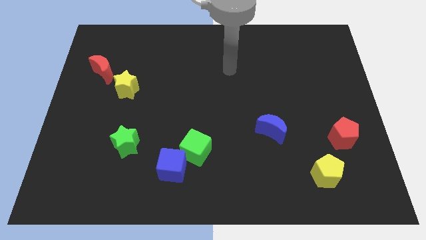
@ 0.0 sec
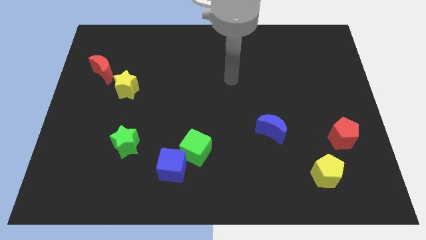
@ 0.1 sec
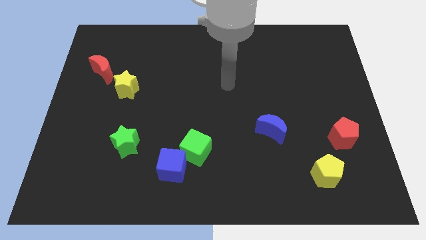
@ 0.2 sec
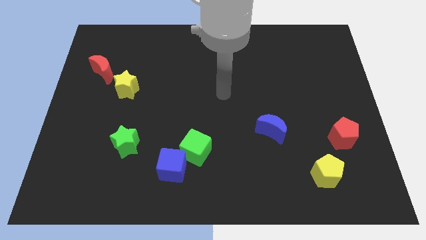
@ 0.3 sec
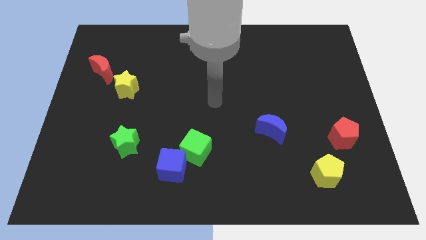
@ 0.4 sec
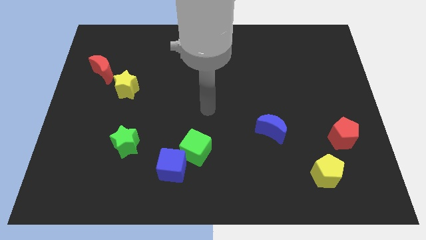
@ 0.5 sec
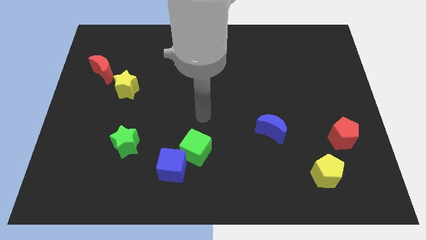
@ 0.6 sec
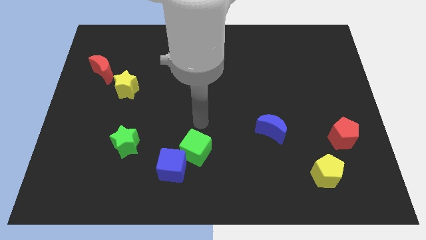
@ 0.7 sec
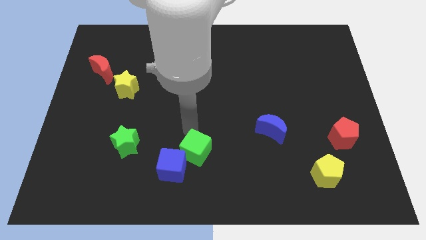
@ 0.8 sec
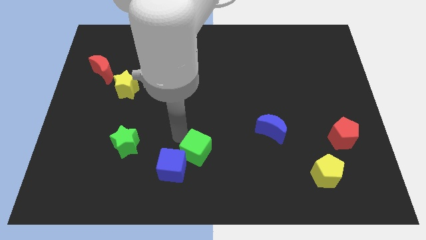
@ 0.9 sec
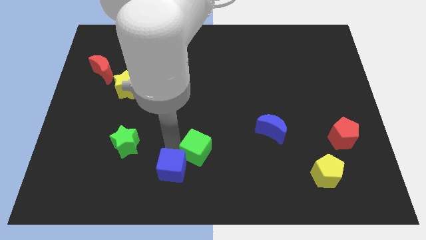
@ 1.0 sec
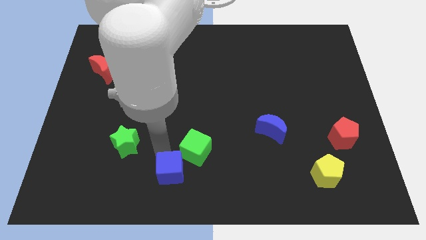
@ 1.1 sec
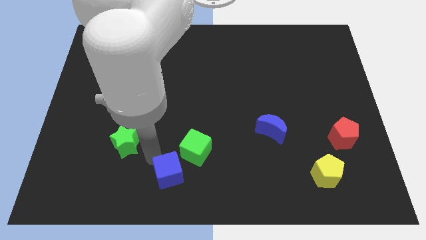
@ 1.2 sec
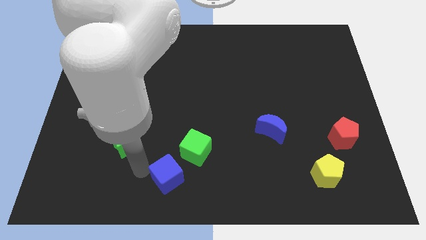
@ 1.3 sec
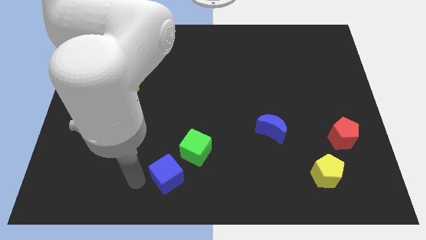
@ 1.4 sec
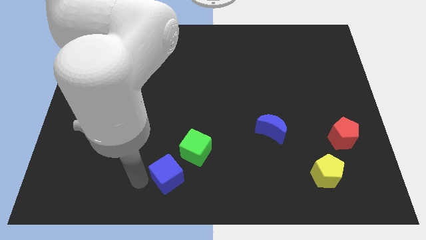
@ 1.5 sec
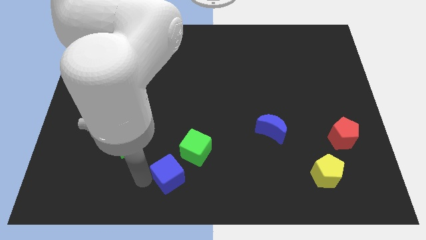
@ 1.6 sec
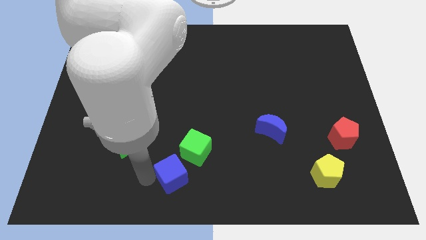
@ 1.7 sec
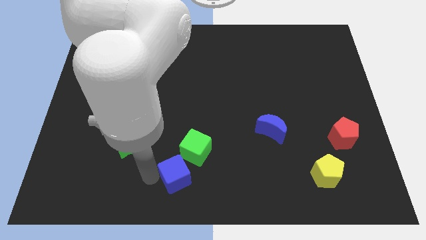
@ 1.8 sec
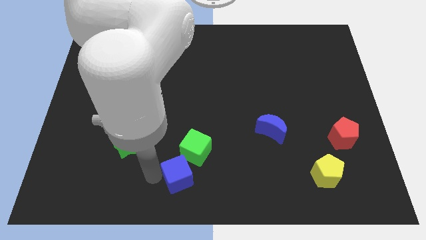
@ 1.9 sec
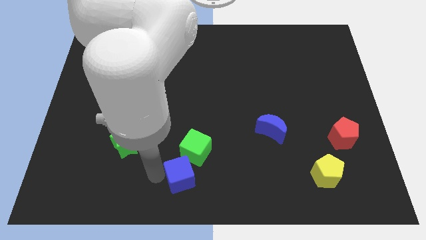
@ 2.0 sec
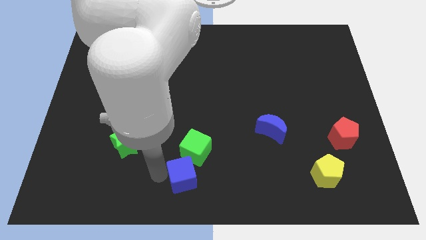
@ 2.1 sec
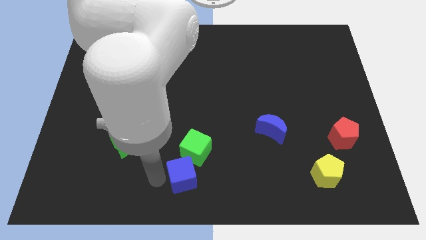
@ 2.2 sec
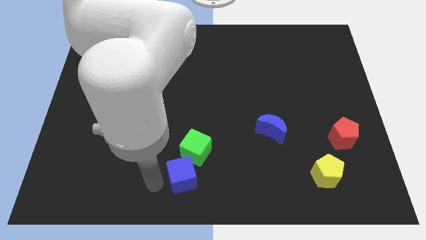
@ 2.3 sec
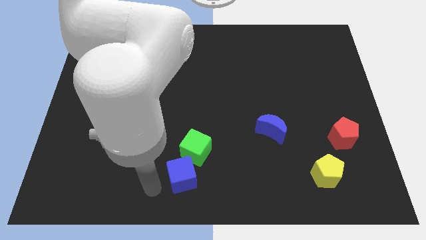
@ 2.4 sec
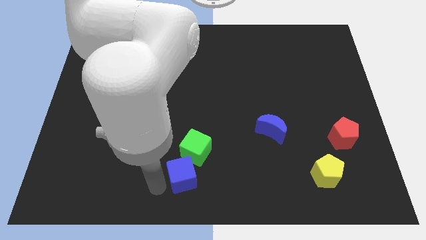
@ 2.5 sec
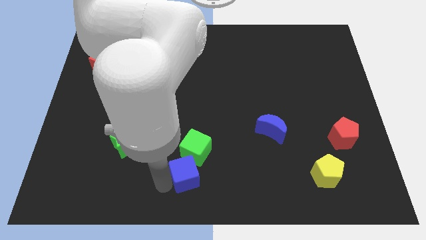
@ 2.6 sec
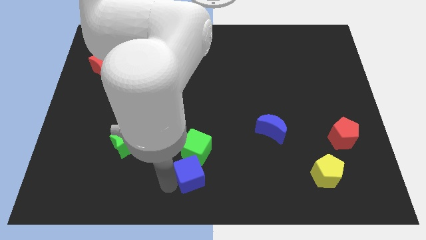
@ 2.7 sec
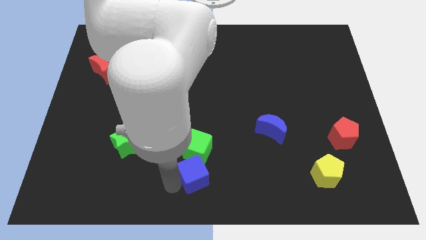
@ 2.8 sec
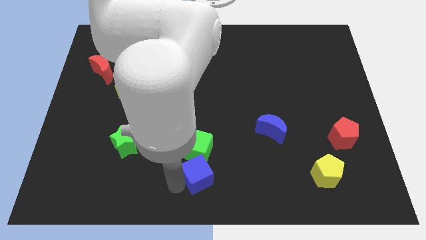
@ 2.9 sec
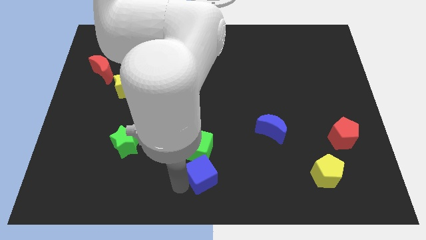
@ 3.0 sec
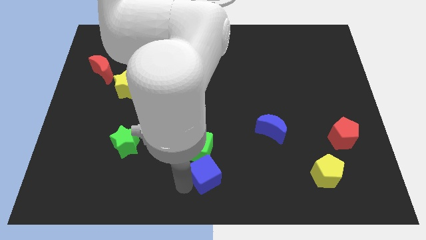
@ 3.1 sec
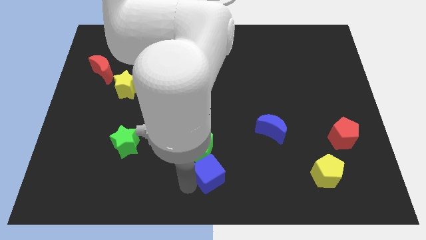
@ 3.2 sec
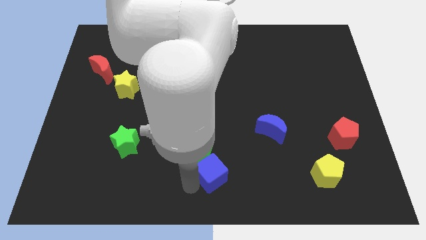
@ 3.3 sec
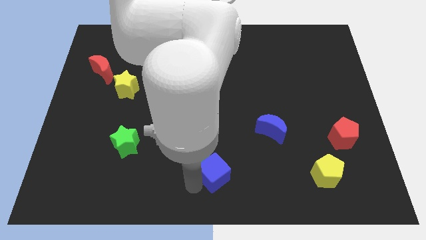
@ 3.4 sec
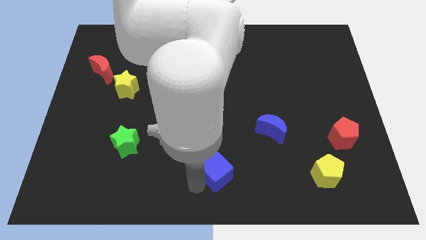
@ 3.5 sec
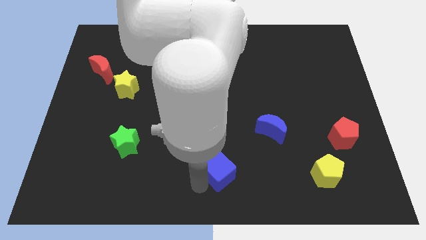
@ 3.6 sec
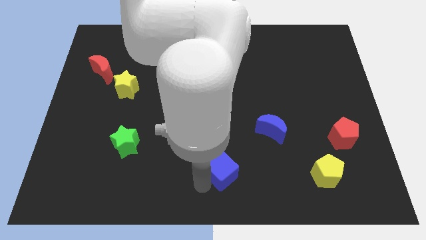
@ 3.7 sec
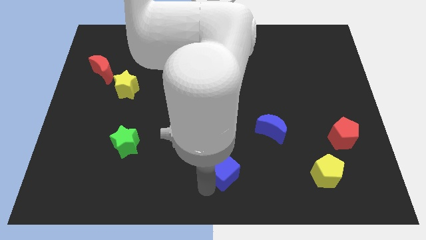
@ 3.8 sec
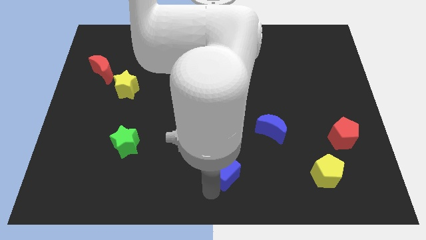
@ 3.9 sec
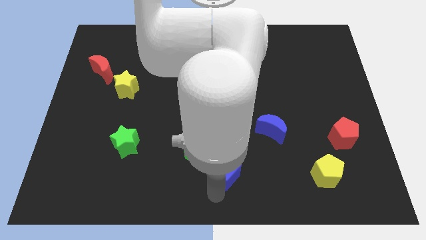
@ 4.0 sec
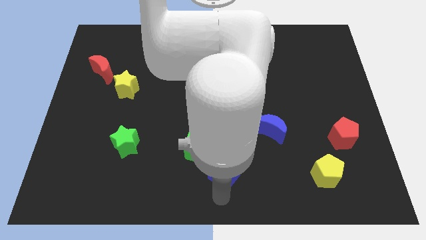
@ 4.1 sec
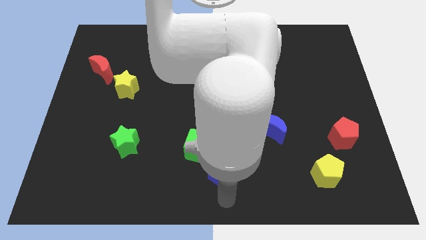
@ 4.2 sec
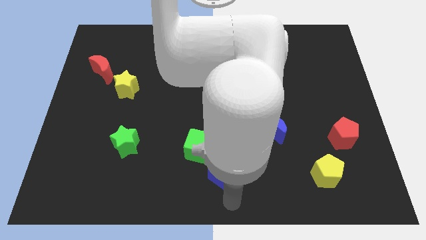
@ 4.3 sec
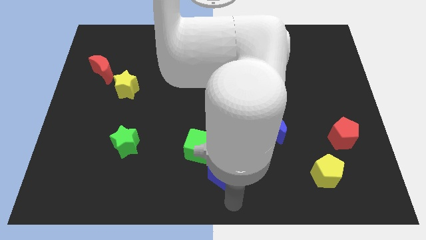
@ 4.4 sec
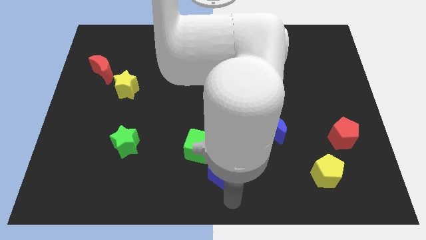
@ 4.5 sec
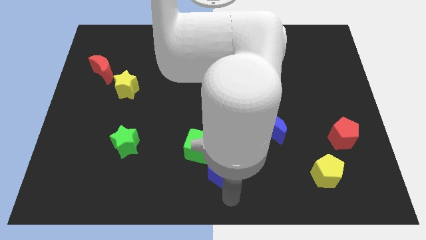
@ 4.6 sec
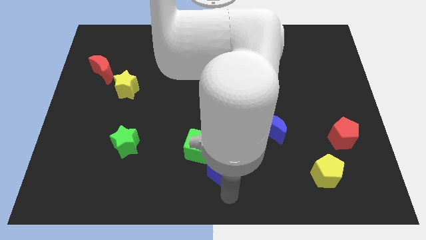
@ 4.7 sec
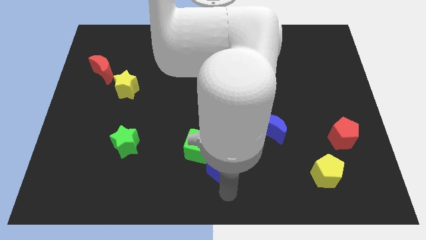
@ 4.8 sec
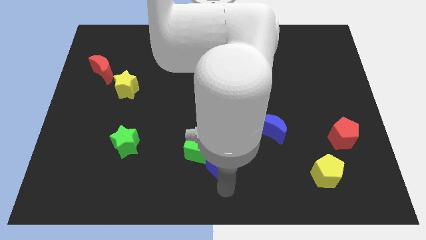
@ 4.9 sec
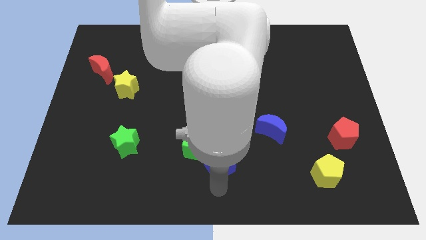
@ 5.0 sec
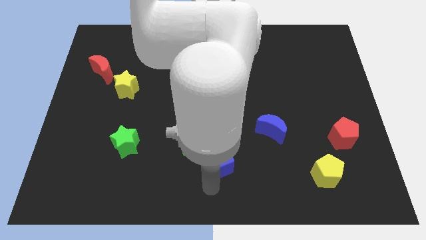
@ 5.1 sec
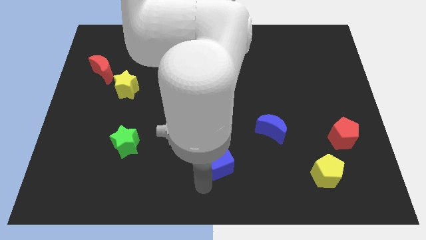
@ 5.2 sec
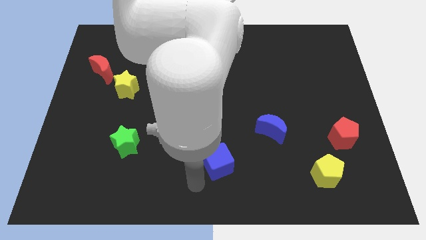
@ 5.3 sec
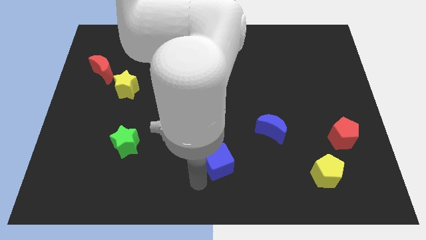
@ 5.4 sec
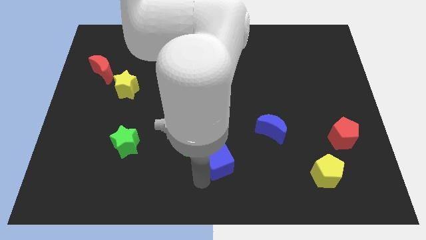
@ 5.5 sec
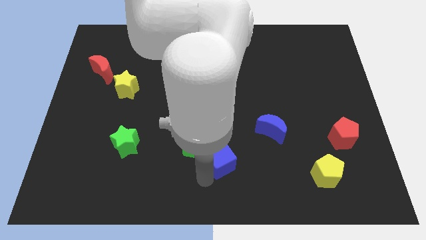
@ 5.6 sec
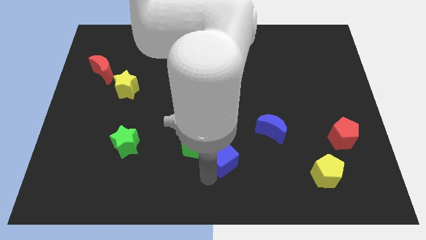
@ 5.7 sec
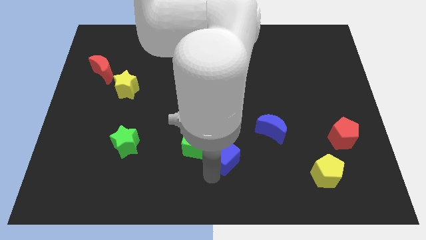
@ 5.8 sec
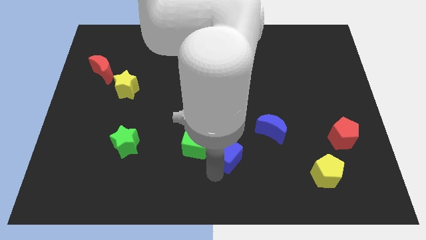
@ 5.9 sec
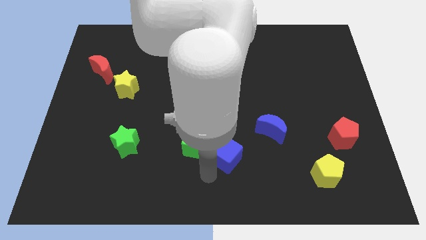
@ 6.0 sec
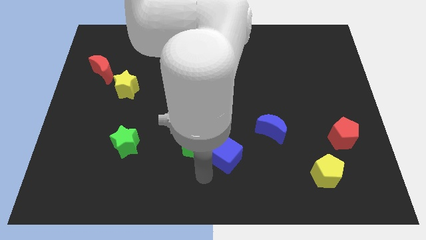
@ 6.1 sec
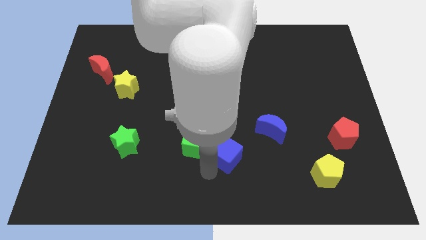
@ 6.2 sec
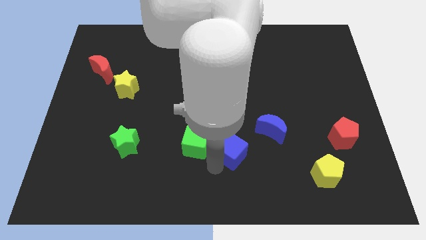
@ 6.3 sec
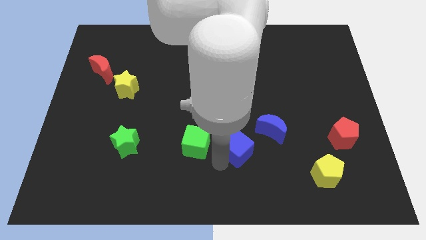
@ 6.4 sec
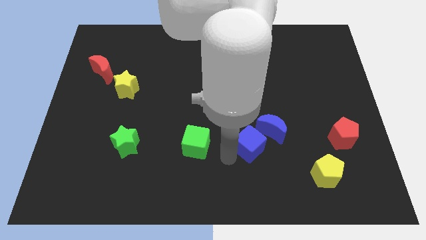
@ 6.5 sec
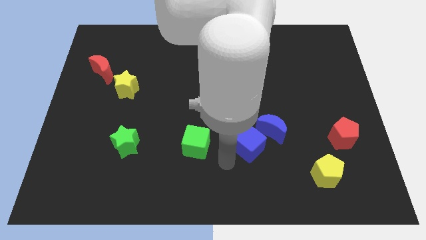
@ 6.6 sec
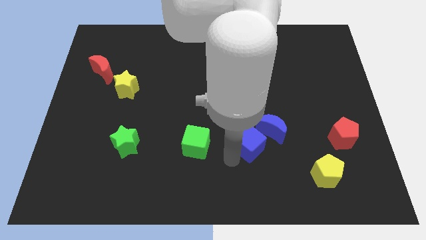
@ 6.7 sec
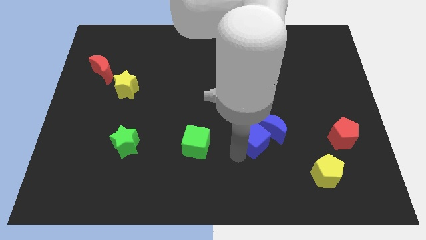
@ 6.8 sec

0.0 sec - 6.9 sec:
push the blue cube towards the blue moon

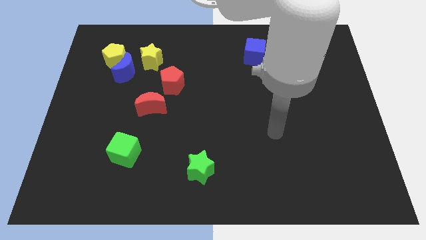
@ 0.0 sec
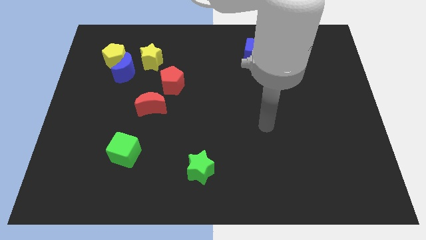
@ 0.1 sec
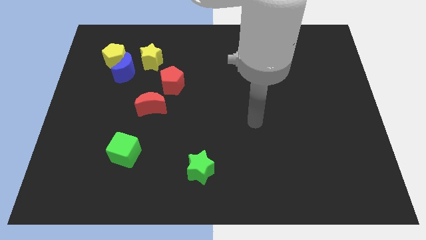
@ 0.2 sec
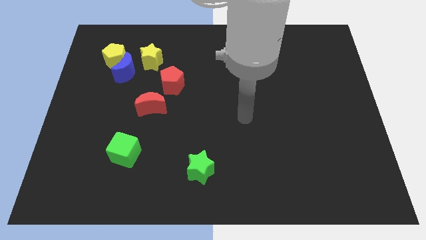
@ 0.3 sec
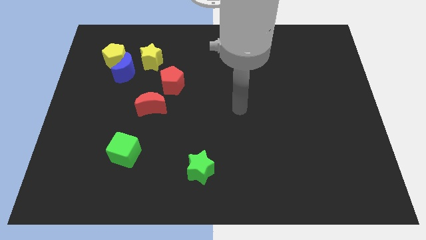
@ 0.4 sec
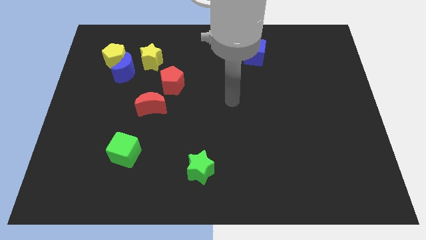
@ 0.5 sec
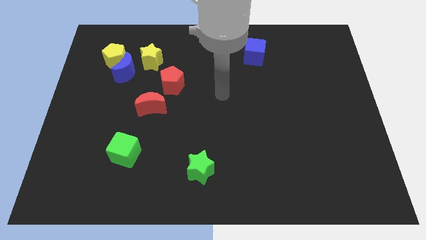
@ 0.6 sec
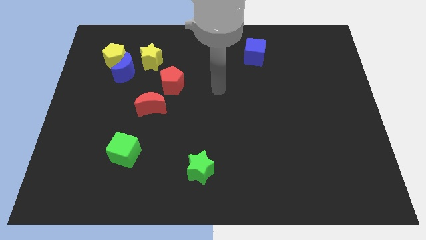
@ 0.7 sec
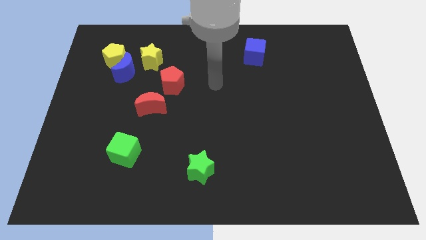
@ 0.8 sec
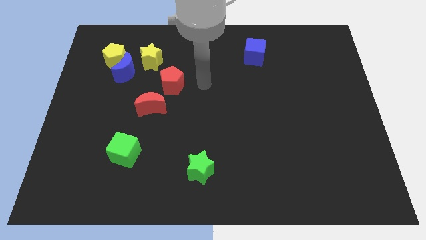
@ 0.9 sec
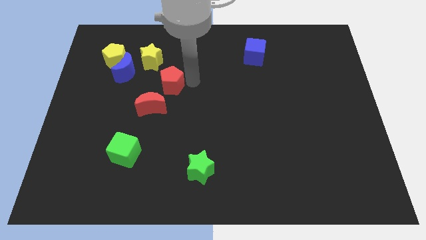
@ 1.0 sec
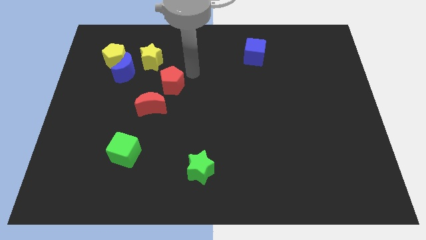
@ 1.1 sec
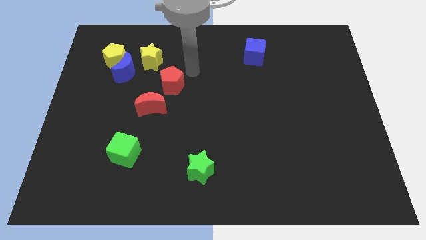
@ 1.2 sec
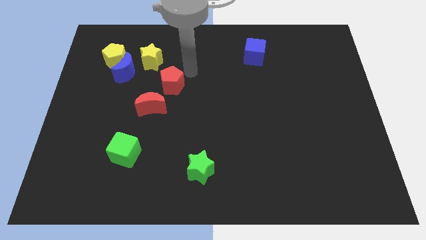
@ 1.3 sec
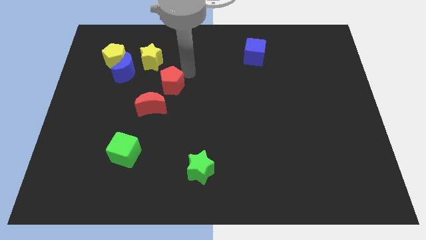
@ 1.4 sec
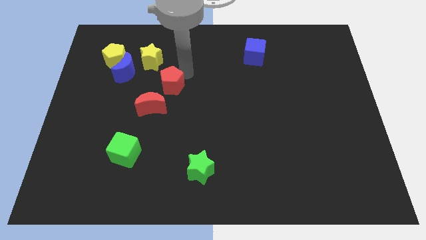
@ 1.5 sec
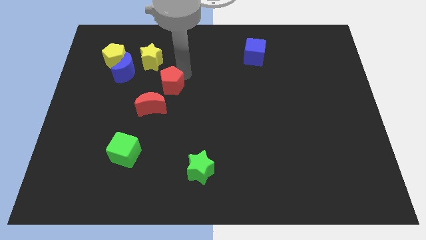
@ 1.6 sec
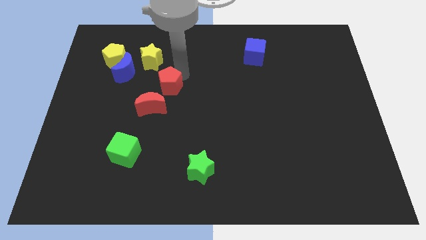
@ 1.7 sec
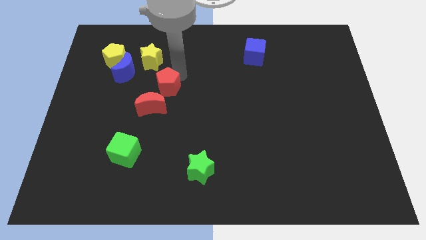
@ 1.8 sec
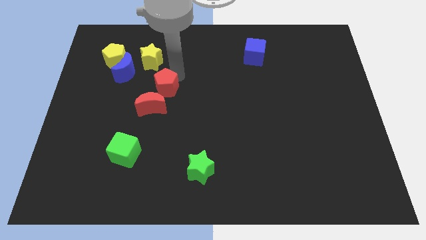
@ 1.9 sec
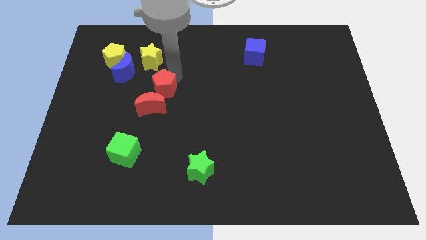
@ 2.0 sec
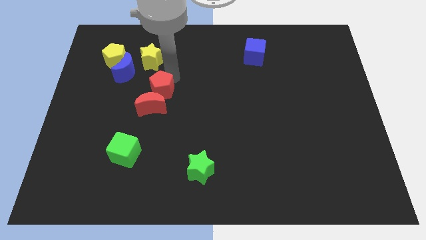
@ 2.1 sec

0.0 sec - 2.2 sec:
slide the red pentagon close to the red moon
